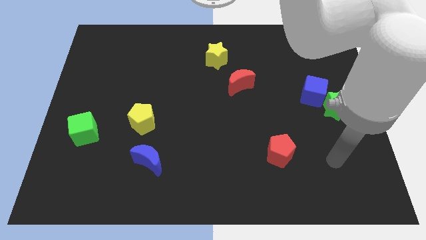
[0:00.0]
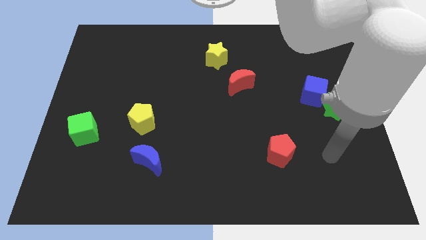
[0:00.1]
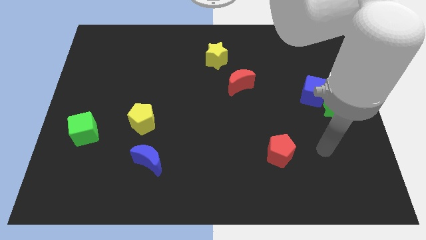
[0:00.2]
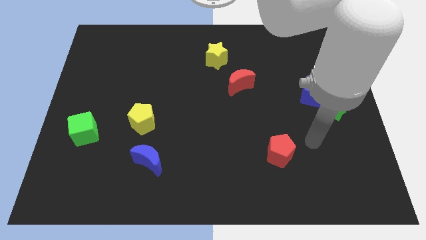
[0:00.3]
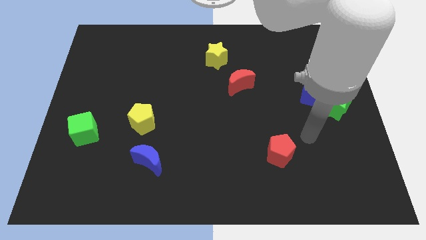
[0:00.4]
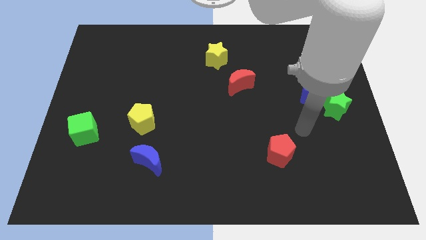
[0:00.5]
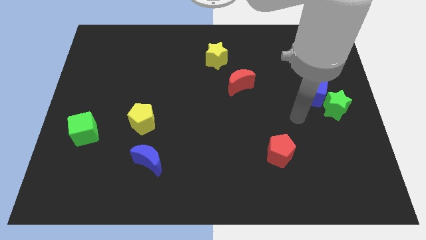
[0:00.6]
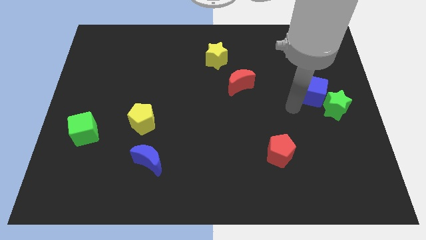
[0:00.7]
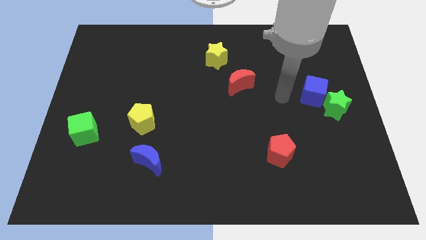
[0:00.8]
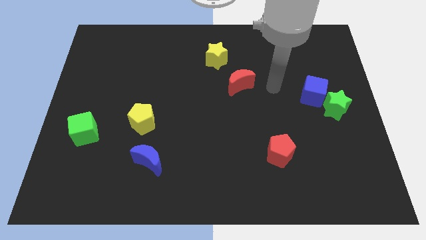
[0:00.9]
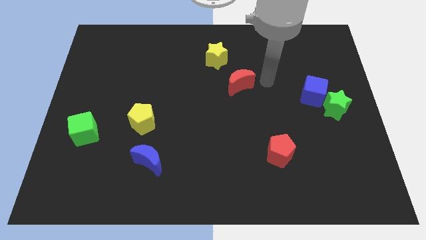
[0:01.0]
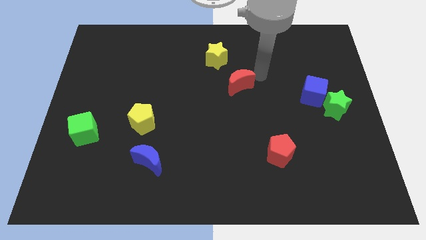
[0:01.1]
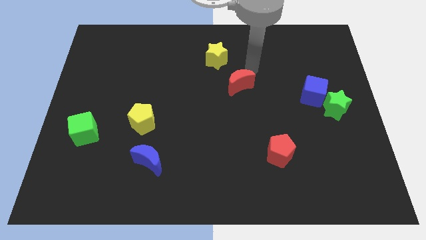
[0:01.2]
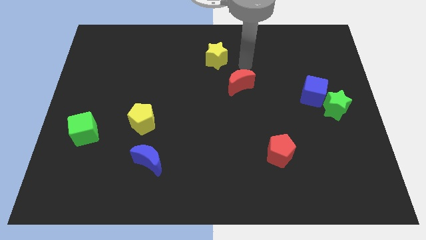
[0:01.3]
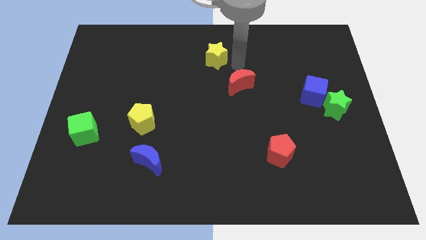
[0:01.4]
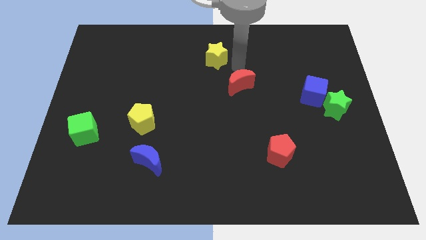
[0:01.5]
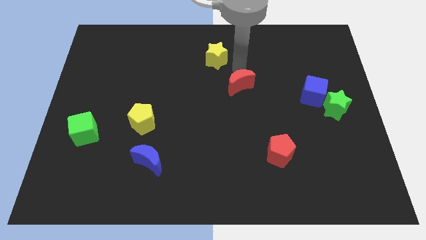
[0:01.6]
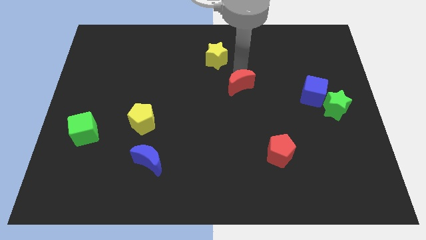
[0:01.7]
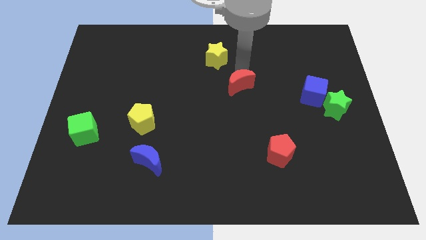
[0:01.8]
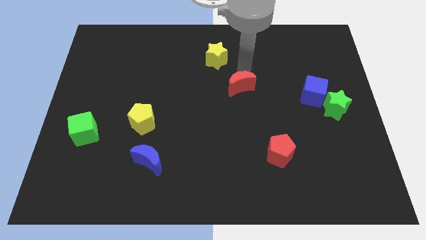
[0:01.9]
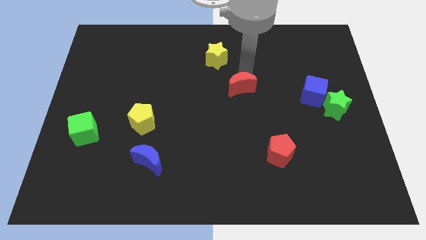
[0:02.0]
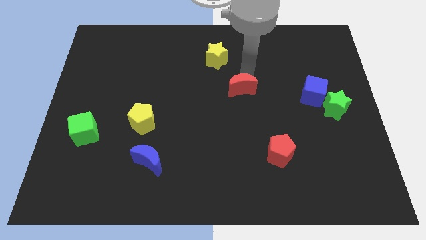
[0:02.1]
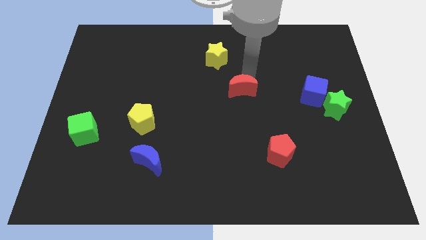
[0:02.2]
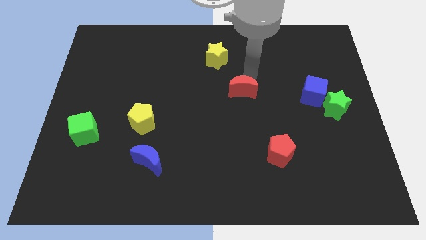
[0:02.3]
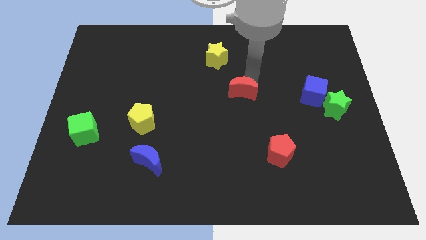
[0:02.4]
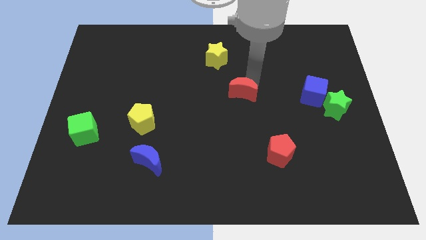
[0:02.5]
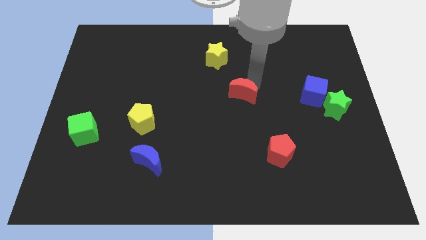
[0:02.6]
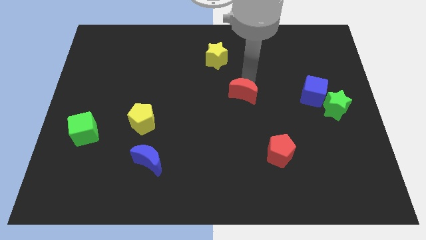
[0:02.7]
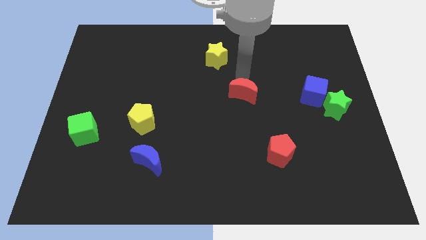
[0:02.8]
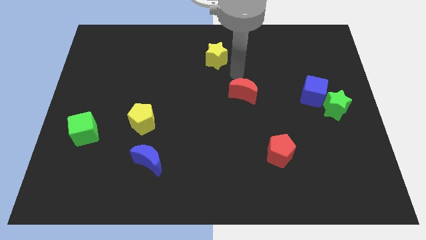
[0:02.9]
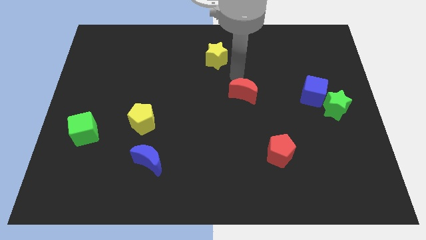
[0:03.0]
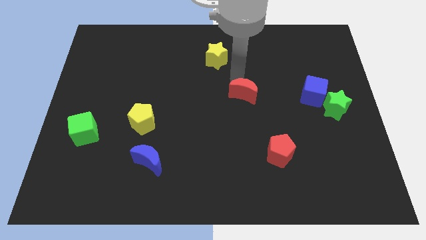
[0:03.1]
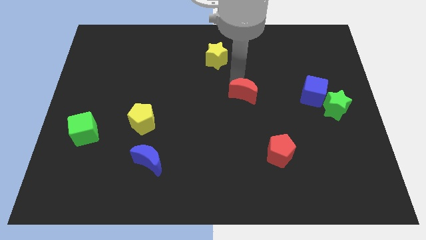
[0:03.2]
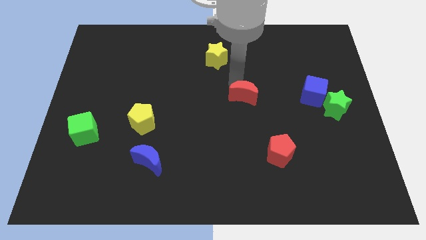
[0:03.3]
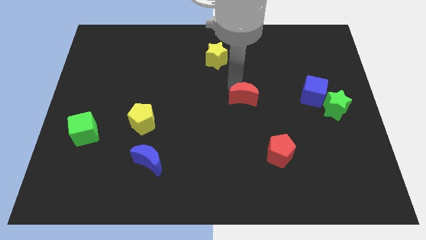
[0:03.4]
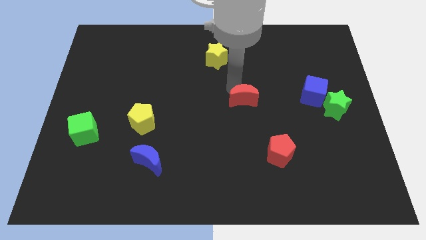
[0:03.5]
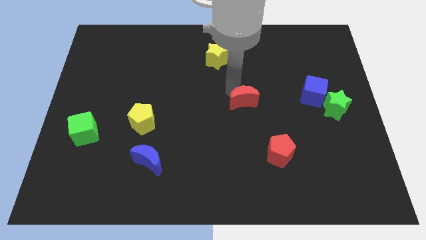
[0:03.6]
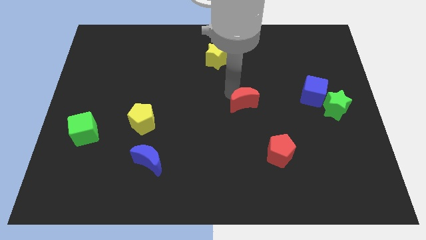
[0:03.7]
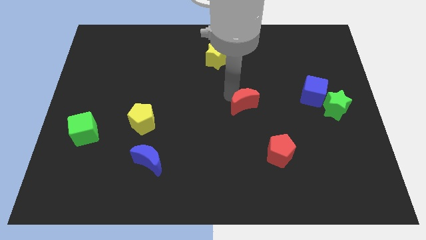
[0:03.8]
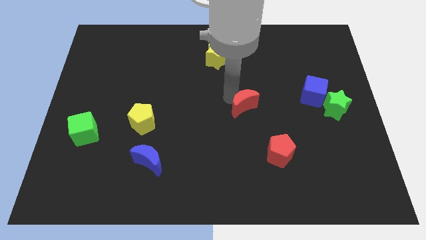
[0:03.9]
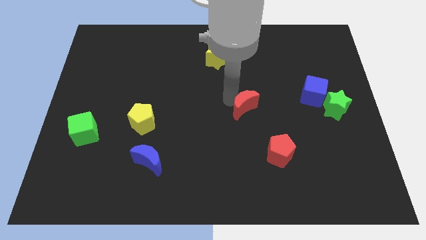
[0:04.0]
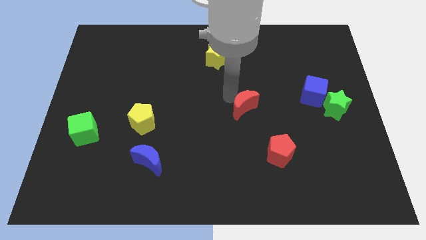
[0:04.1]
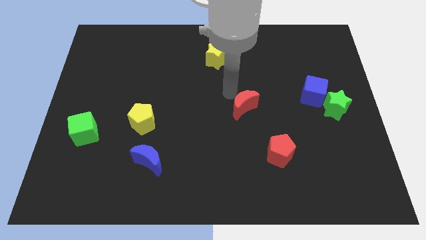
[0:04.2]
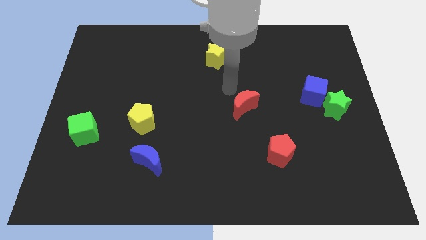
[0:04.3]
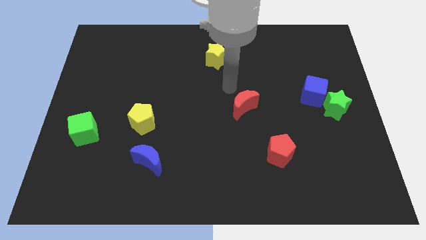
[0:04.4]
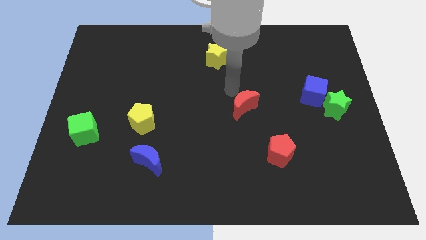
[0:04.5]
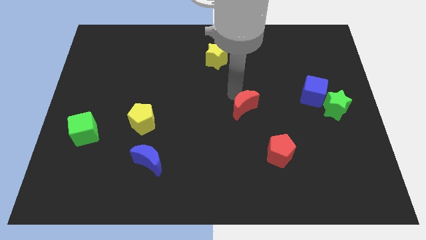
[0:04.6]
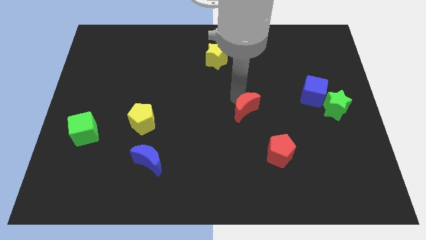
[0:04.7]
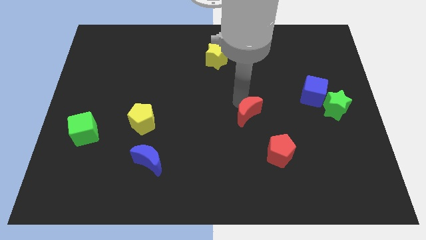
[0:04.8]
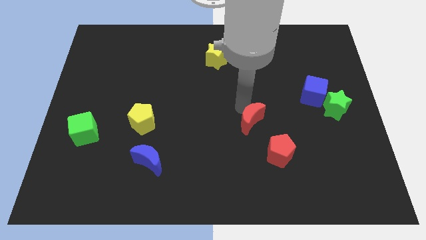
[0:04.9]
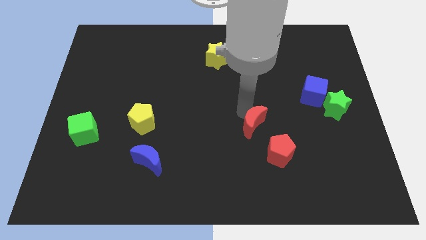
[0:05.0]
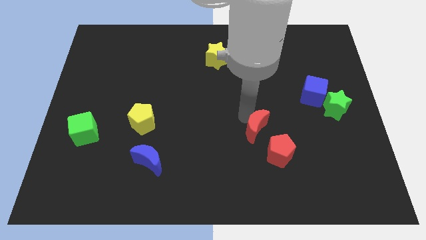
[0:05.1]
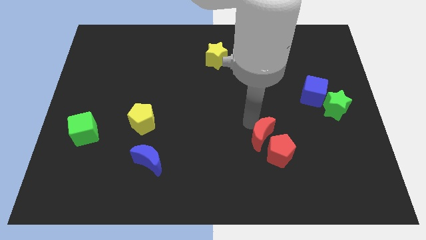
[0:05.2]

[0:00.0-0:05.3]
push the red moon towards the red pentagon

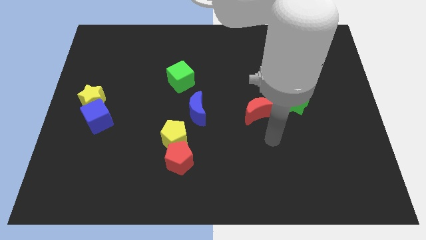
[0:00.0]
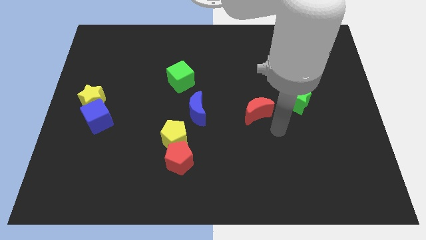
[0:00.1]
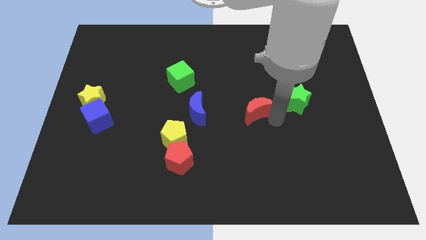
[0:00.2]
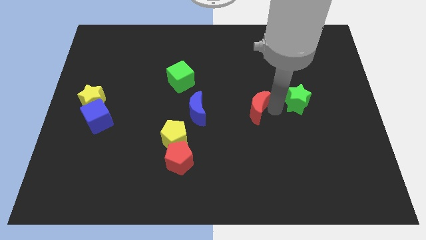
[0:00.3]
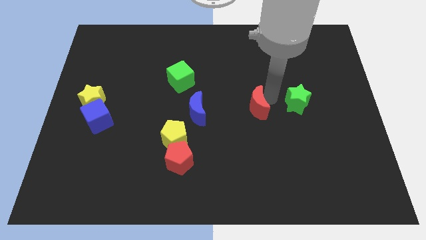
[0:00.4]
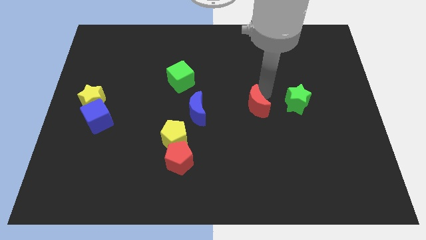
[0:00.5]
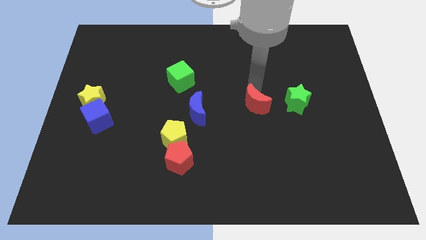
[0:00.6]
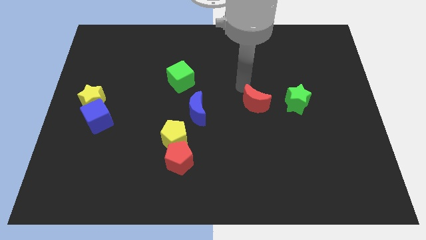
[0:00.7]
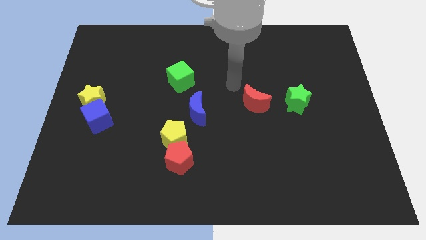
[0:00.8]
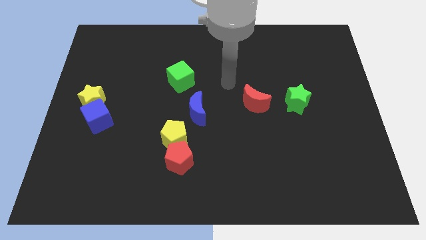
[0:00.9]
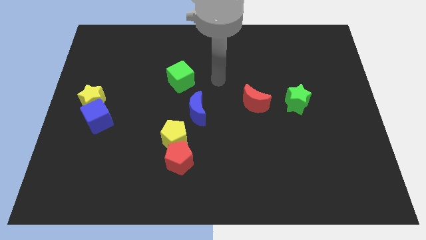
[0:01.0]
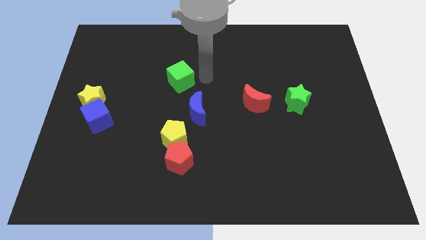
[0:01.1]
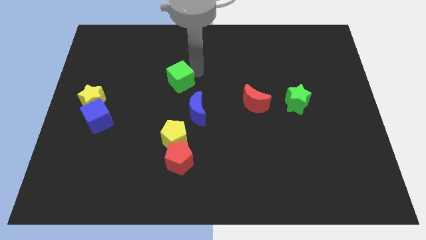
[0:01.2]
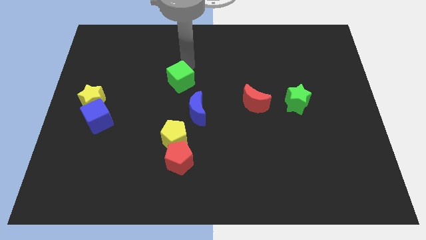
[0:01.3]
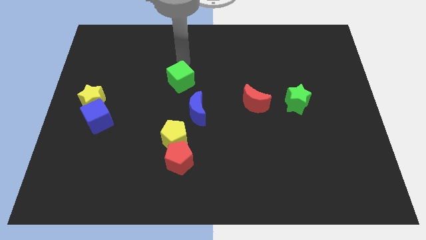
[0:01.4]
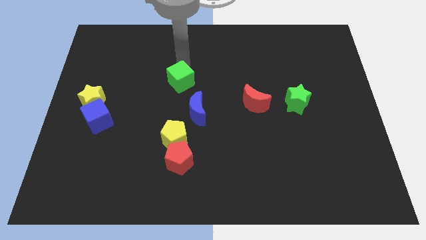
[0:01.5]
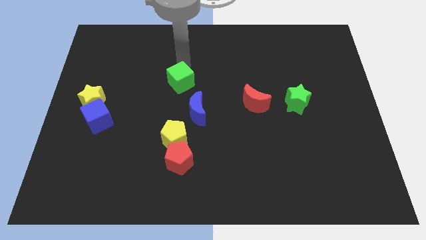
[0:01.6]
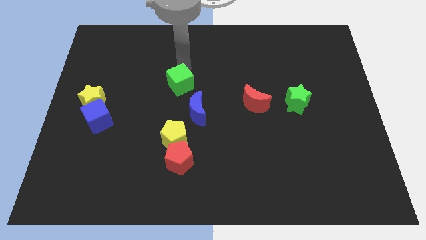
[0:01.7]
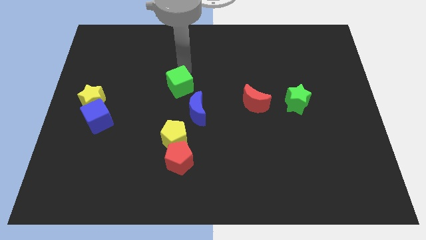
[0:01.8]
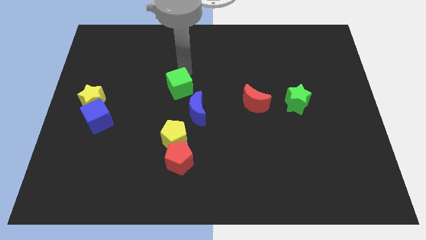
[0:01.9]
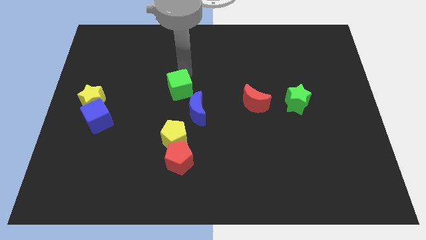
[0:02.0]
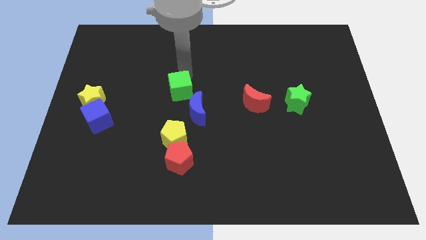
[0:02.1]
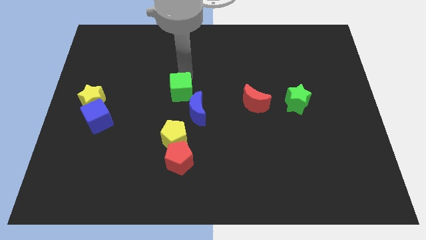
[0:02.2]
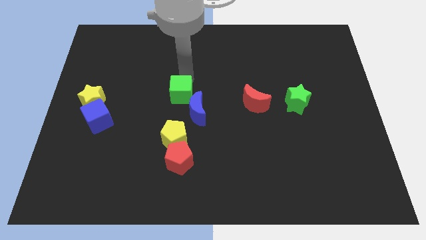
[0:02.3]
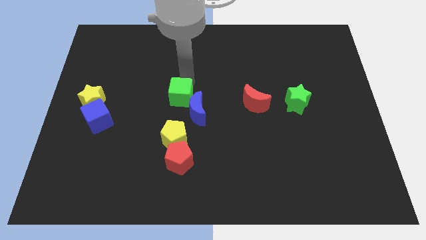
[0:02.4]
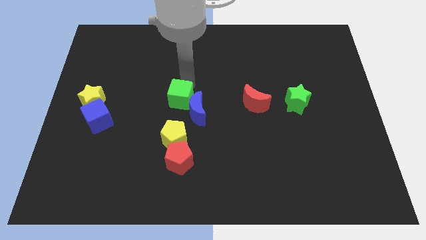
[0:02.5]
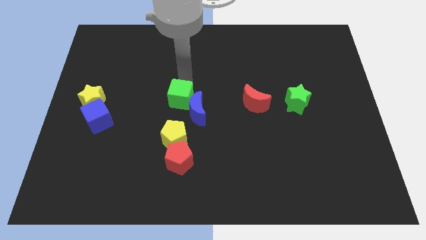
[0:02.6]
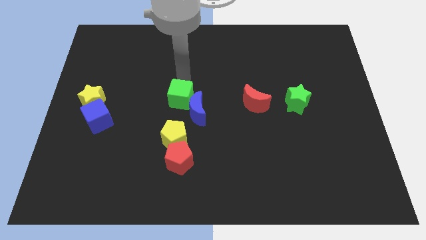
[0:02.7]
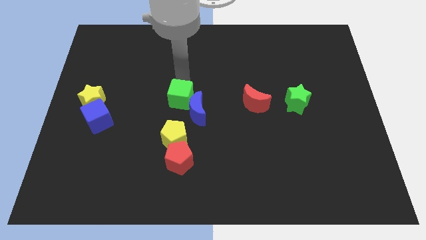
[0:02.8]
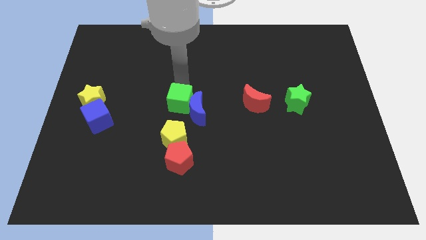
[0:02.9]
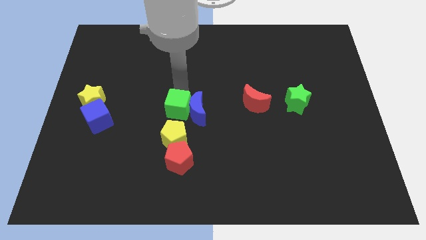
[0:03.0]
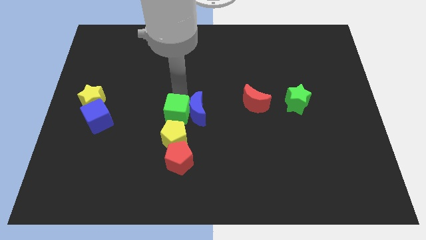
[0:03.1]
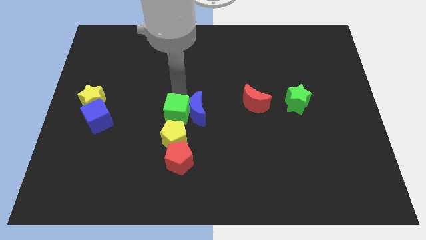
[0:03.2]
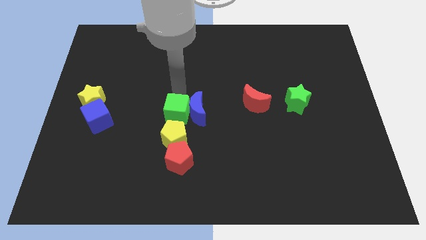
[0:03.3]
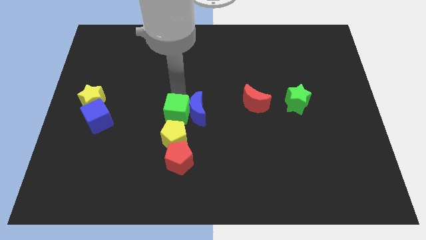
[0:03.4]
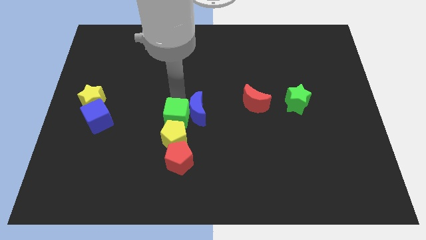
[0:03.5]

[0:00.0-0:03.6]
move the green cube close to the yellow pentagon
